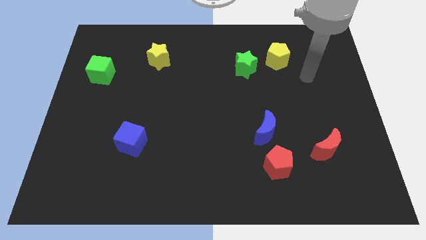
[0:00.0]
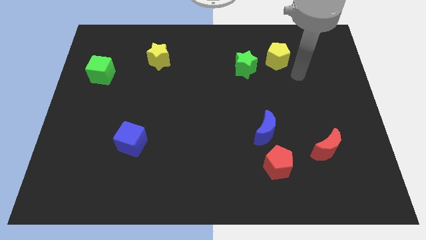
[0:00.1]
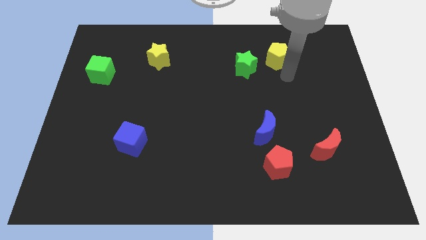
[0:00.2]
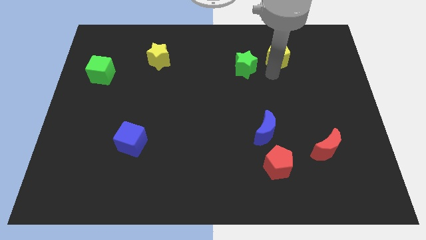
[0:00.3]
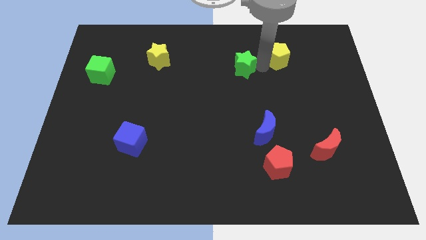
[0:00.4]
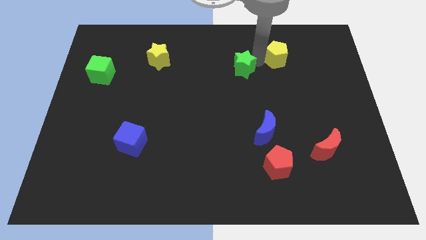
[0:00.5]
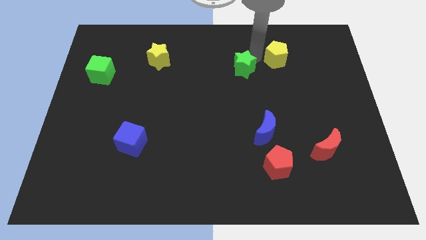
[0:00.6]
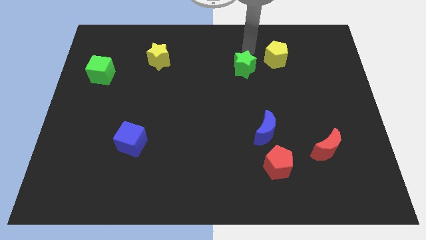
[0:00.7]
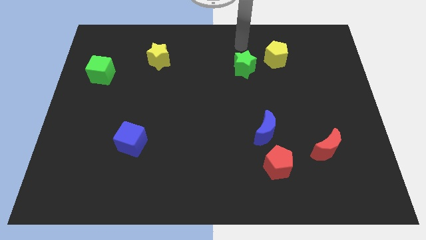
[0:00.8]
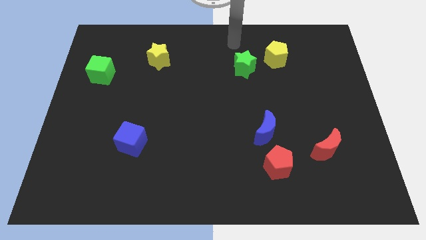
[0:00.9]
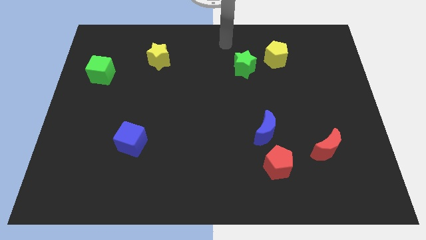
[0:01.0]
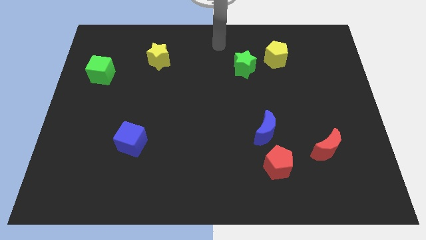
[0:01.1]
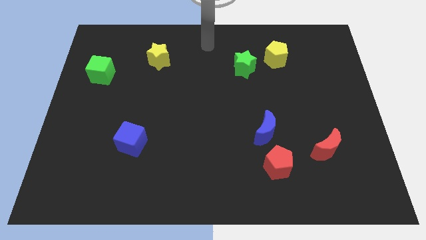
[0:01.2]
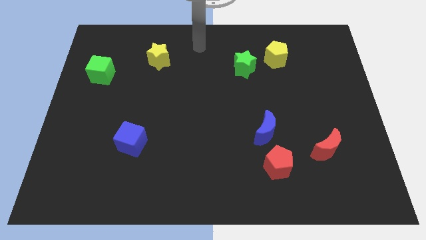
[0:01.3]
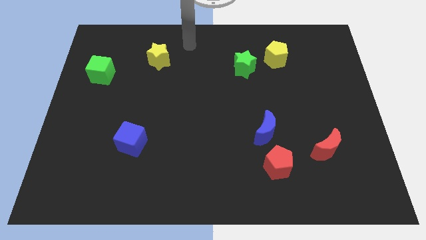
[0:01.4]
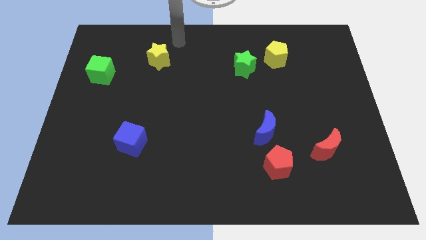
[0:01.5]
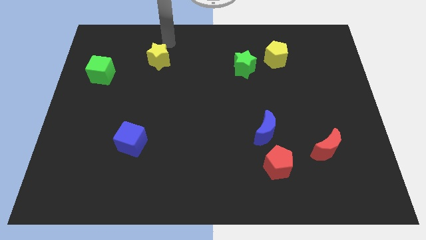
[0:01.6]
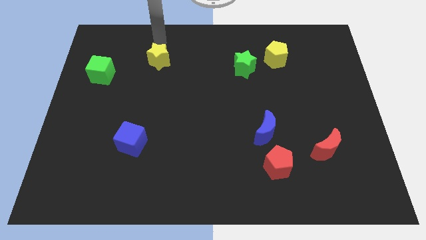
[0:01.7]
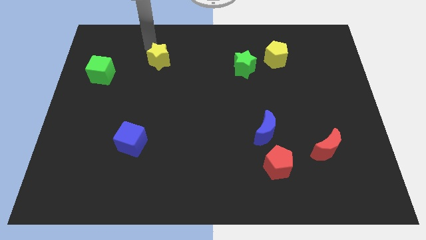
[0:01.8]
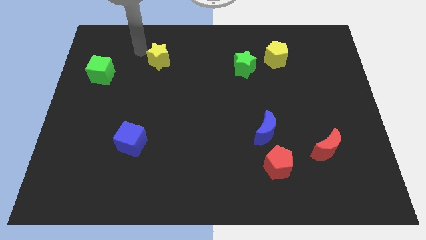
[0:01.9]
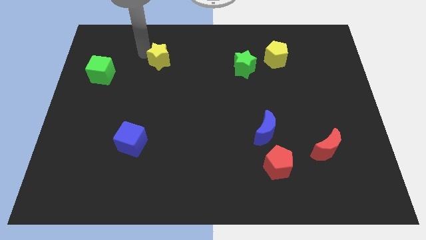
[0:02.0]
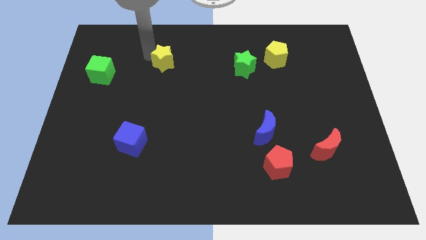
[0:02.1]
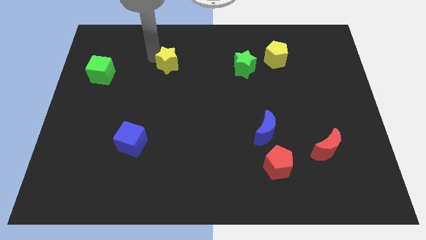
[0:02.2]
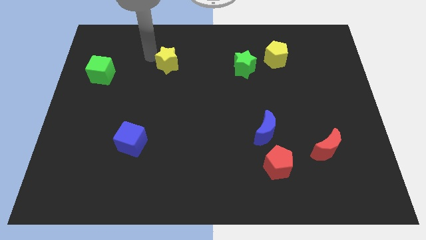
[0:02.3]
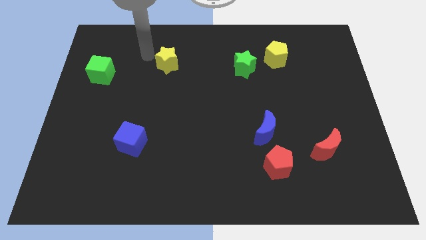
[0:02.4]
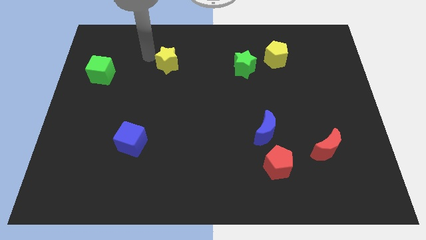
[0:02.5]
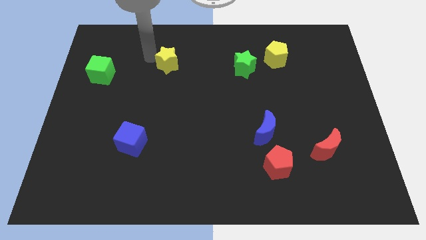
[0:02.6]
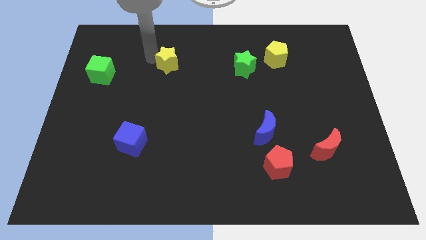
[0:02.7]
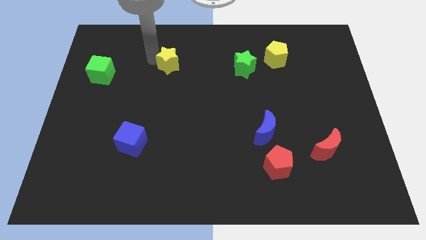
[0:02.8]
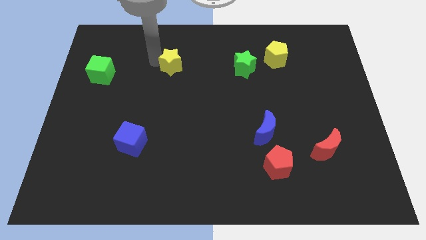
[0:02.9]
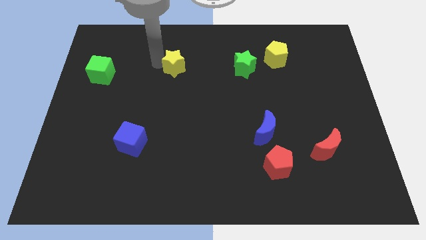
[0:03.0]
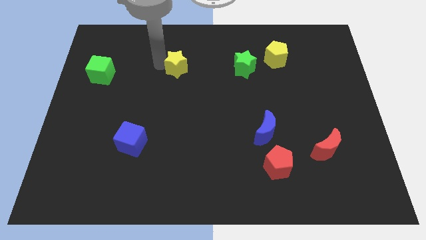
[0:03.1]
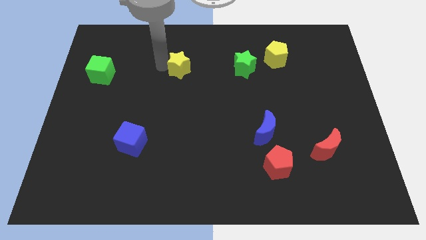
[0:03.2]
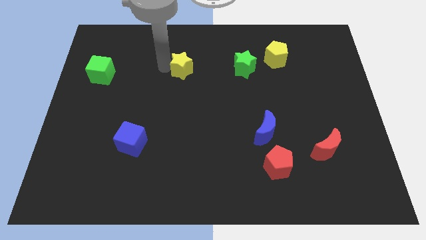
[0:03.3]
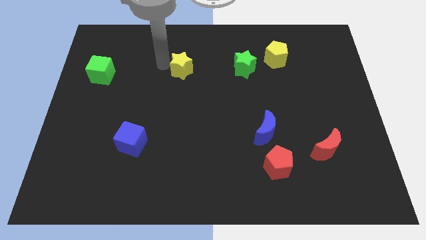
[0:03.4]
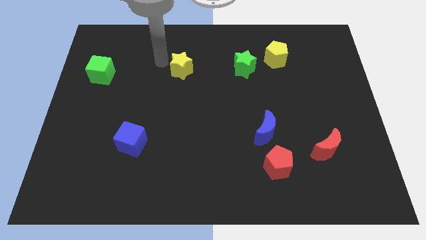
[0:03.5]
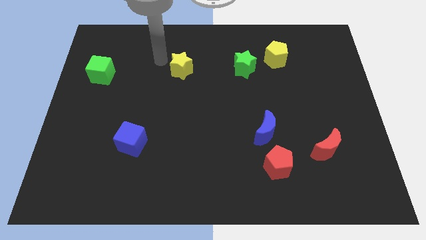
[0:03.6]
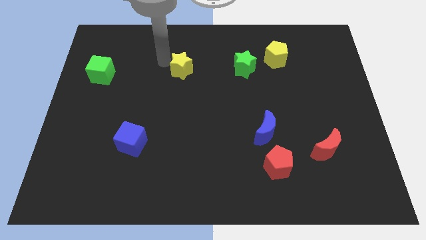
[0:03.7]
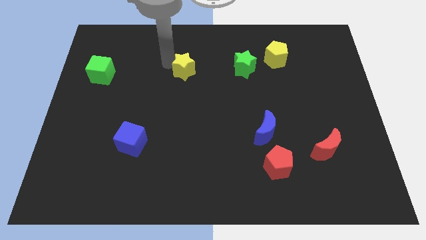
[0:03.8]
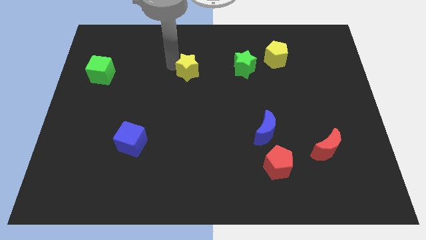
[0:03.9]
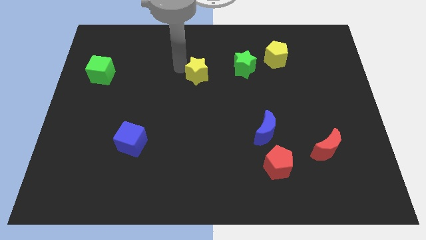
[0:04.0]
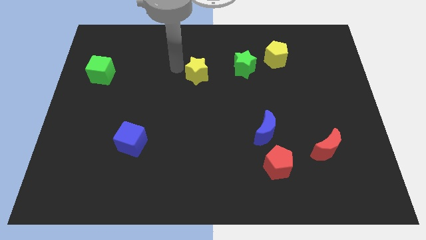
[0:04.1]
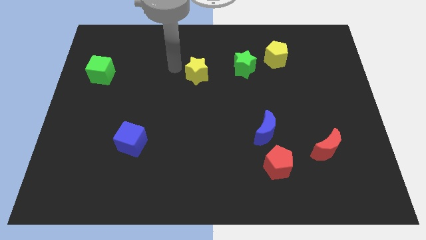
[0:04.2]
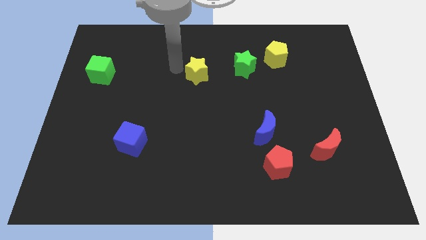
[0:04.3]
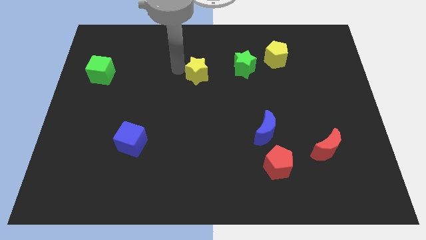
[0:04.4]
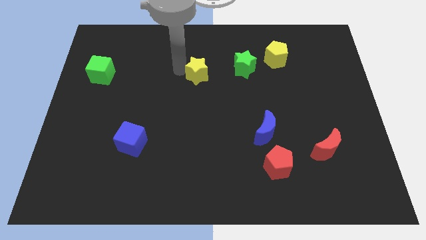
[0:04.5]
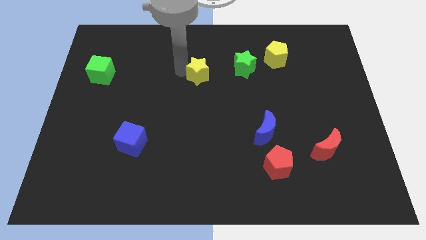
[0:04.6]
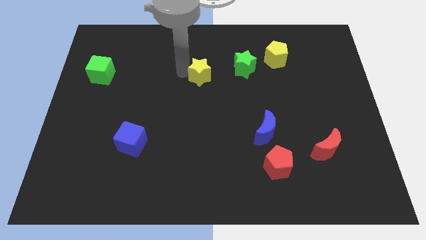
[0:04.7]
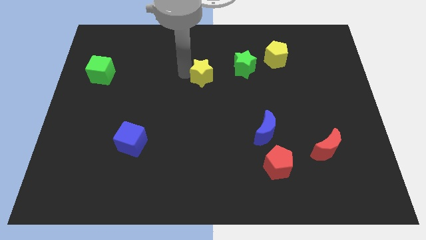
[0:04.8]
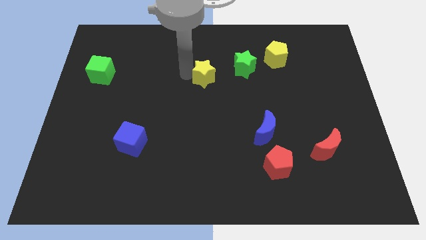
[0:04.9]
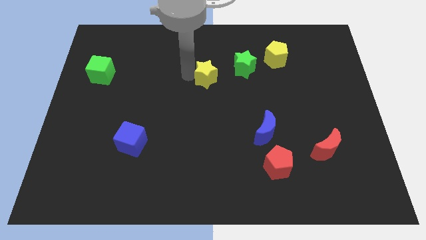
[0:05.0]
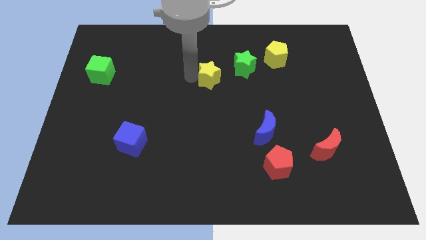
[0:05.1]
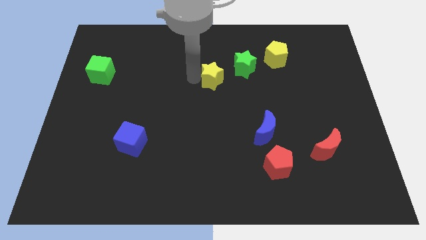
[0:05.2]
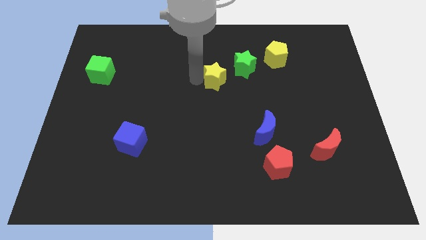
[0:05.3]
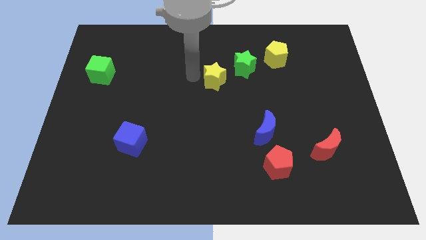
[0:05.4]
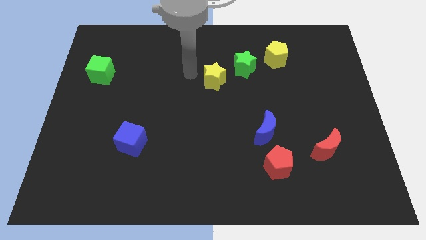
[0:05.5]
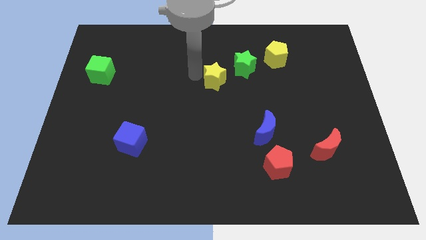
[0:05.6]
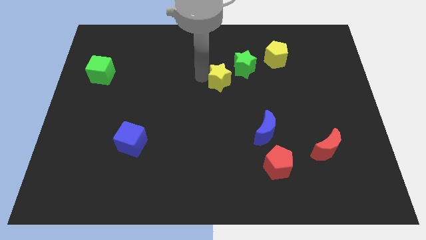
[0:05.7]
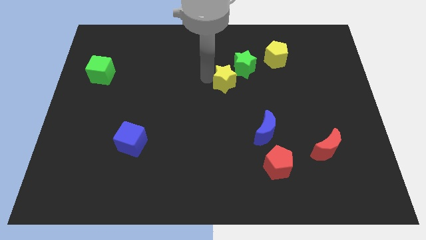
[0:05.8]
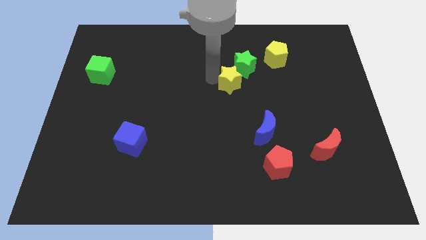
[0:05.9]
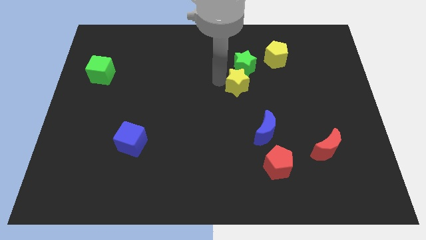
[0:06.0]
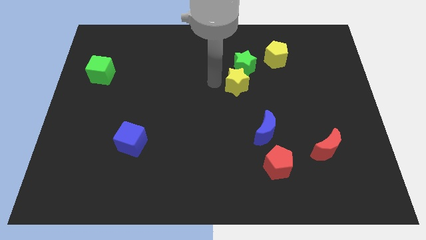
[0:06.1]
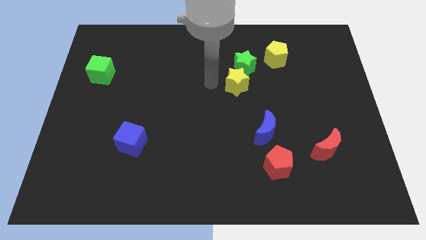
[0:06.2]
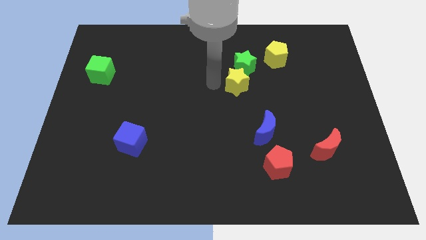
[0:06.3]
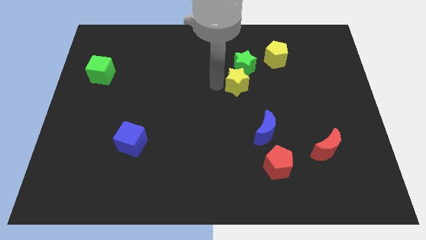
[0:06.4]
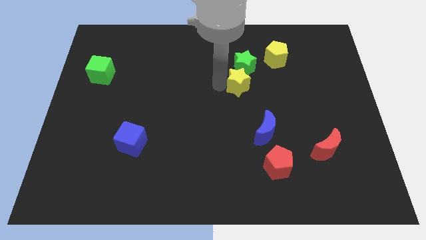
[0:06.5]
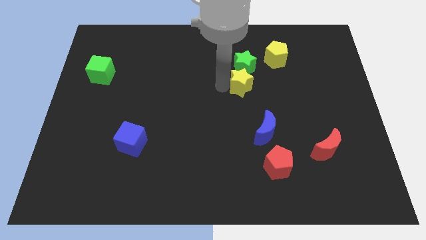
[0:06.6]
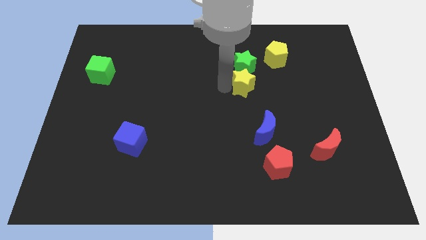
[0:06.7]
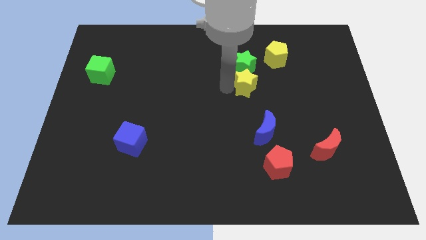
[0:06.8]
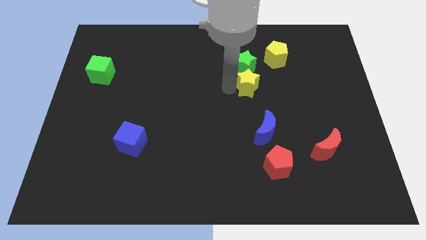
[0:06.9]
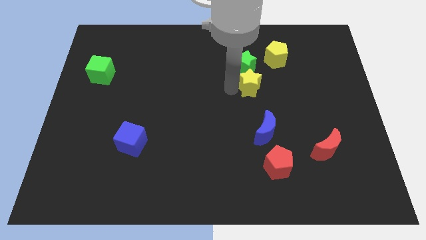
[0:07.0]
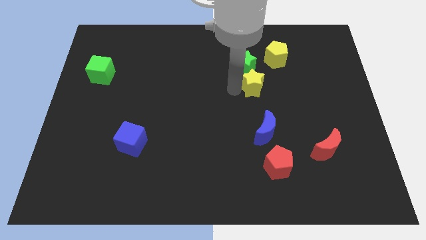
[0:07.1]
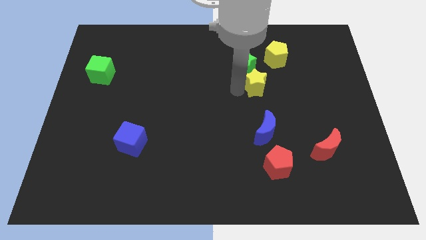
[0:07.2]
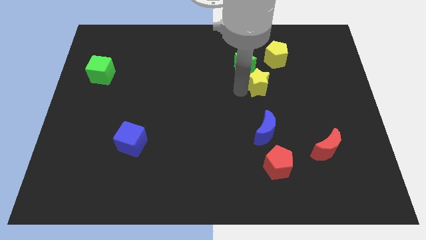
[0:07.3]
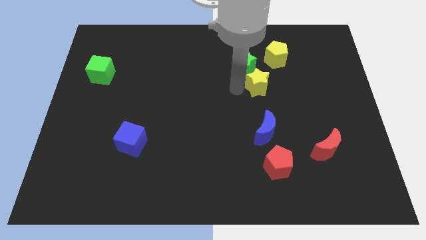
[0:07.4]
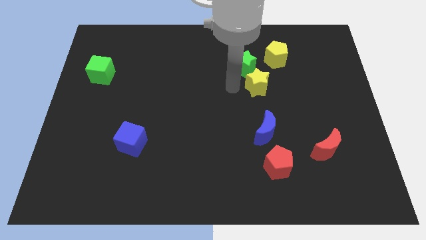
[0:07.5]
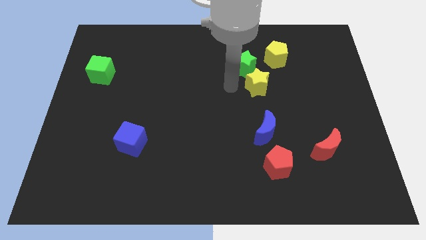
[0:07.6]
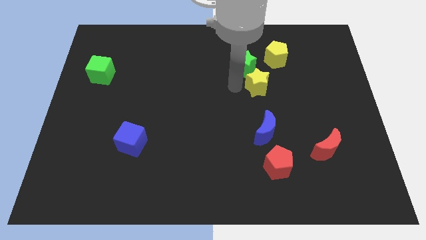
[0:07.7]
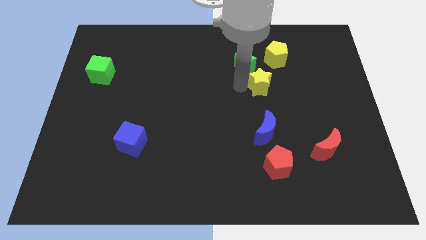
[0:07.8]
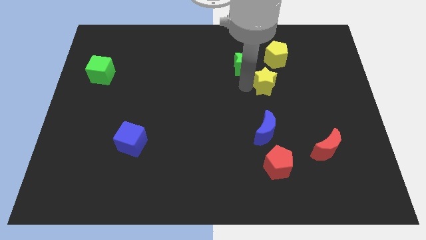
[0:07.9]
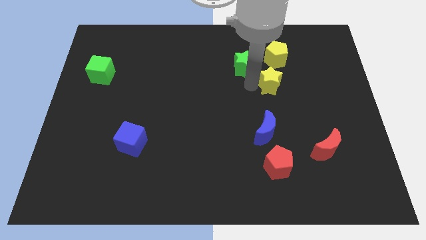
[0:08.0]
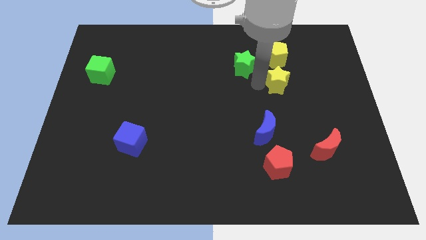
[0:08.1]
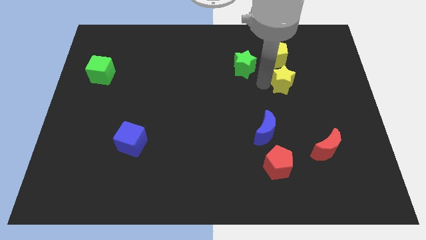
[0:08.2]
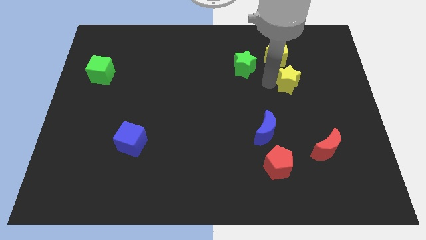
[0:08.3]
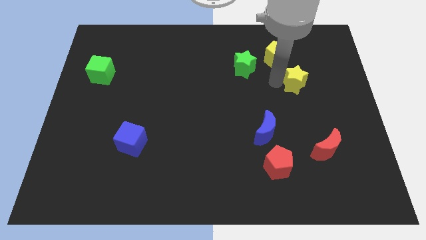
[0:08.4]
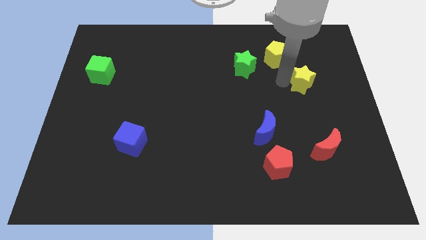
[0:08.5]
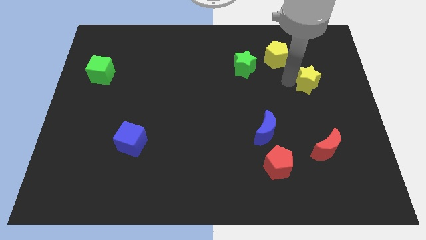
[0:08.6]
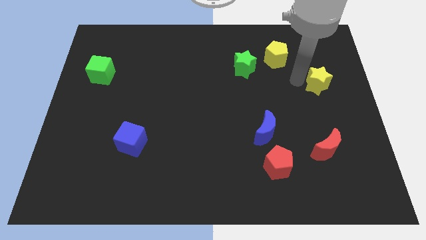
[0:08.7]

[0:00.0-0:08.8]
move the yellow star to the right side
